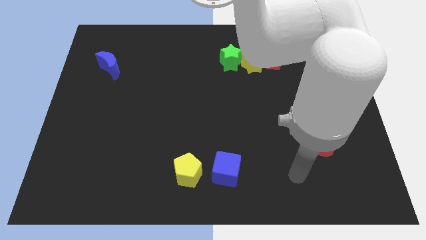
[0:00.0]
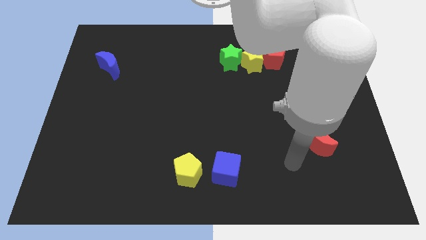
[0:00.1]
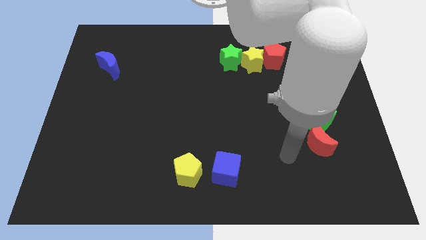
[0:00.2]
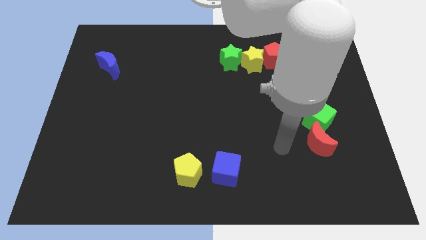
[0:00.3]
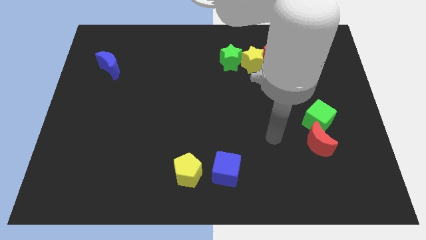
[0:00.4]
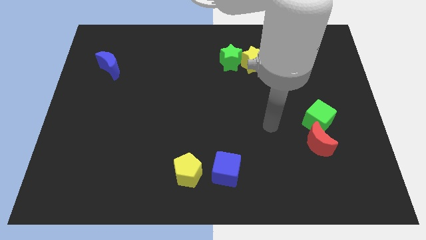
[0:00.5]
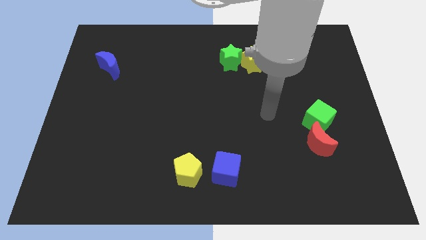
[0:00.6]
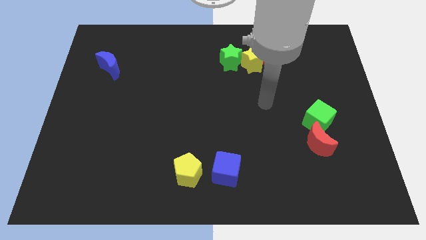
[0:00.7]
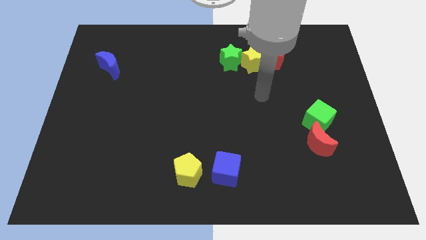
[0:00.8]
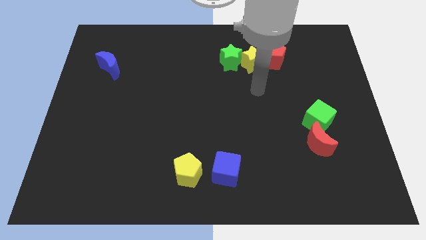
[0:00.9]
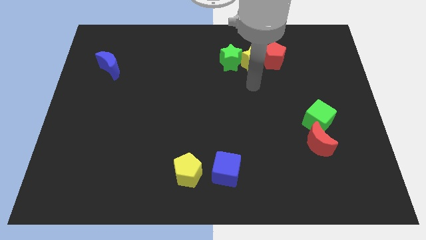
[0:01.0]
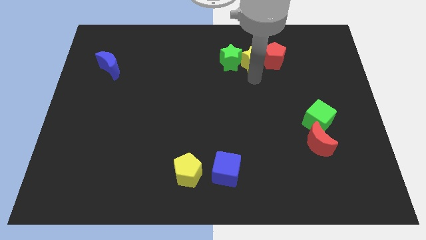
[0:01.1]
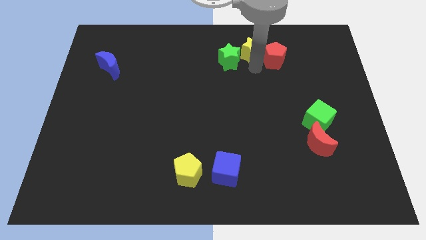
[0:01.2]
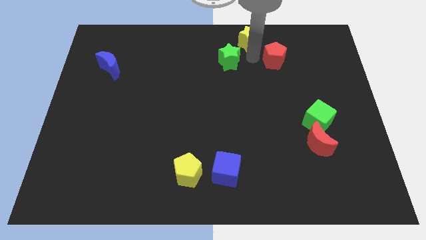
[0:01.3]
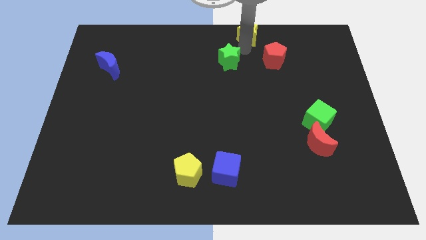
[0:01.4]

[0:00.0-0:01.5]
move the green star away from the yellow star

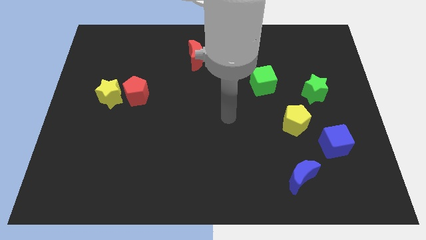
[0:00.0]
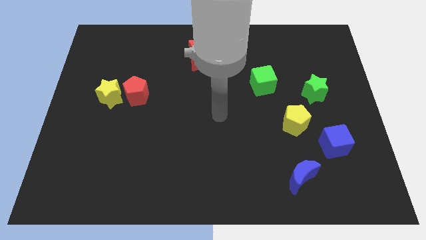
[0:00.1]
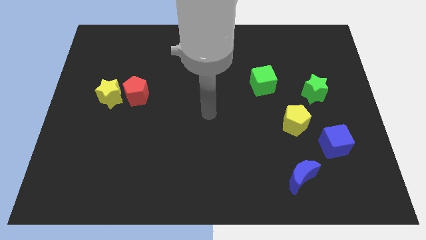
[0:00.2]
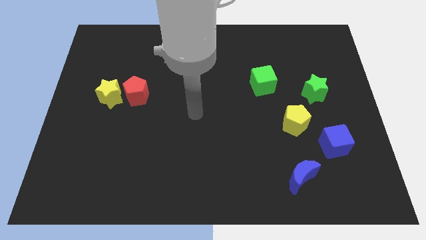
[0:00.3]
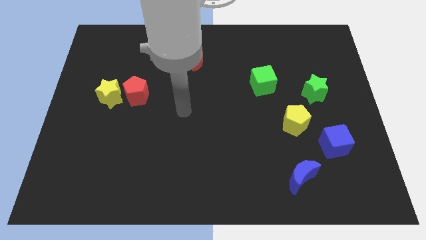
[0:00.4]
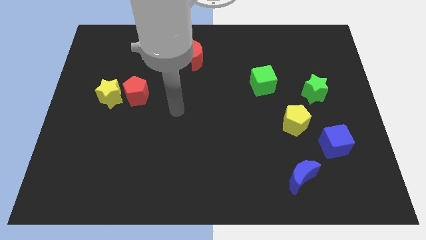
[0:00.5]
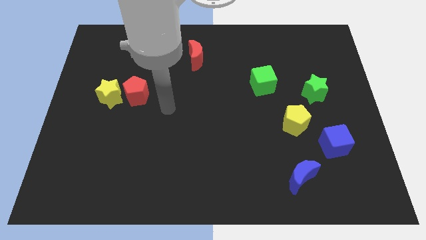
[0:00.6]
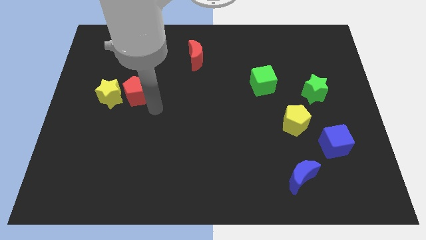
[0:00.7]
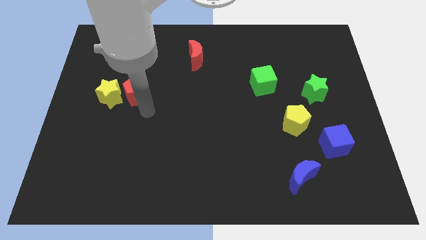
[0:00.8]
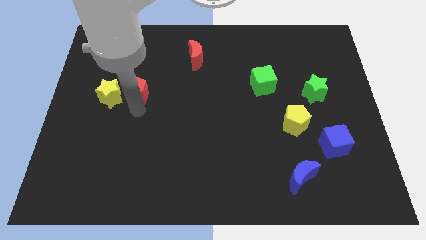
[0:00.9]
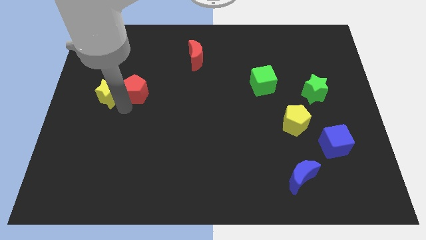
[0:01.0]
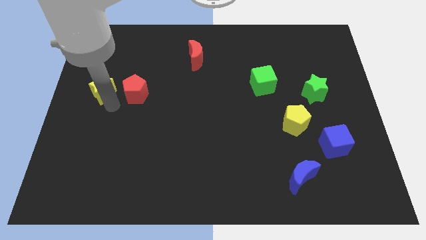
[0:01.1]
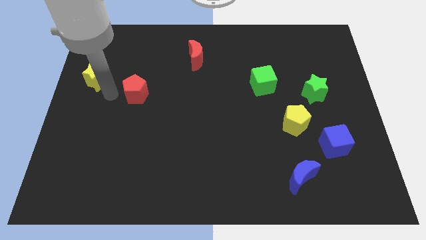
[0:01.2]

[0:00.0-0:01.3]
separate the red pentagon from the yellow star

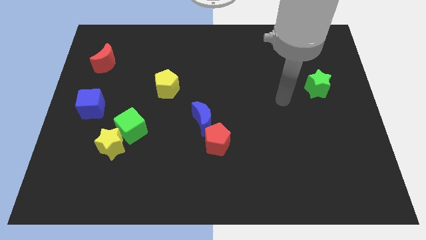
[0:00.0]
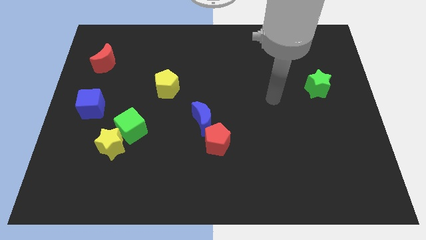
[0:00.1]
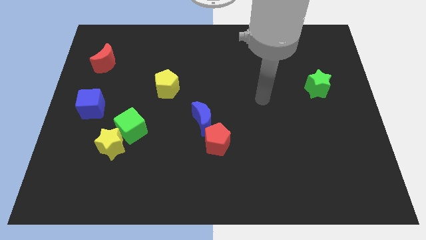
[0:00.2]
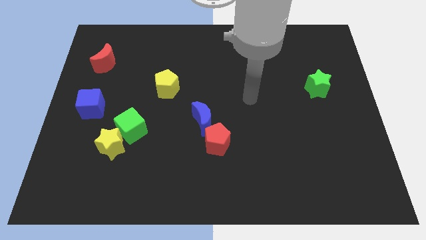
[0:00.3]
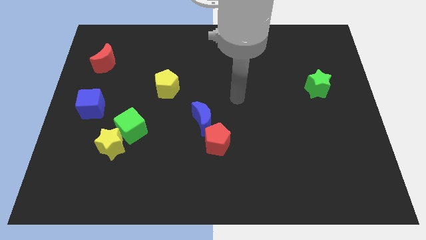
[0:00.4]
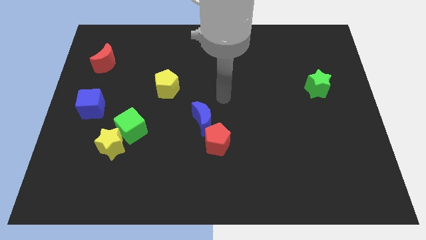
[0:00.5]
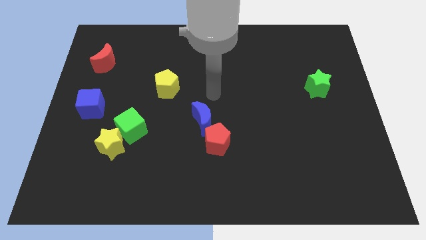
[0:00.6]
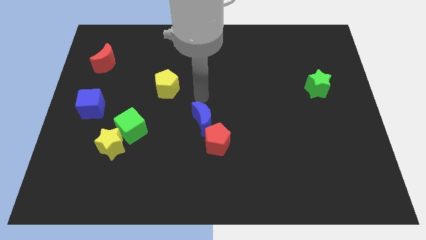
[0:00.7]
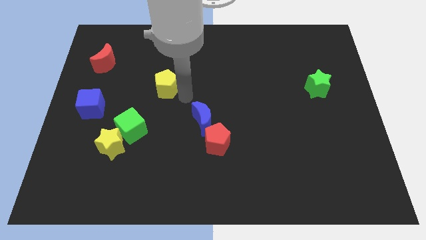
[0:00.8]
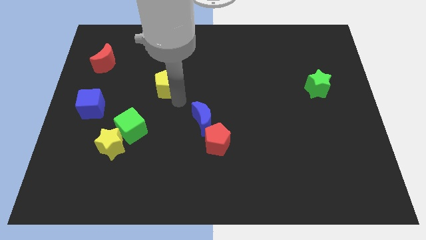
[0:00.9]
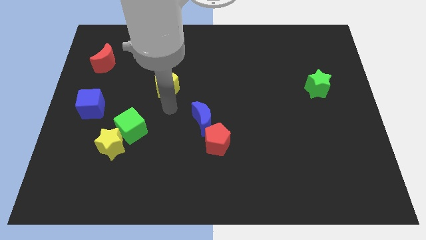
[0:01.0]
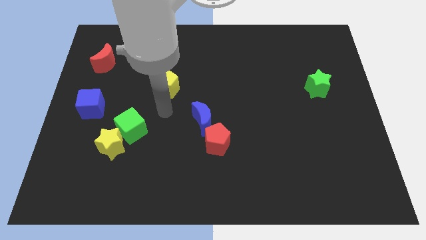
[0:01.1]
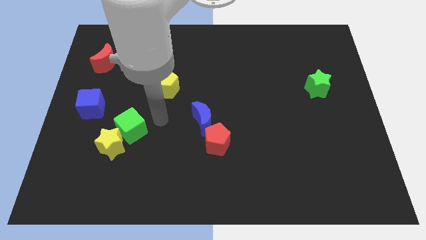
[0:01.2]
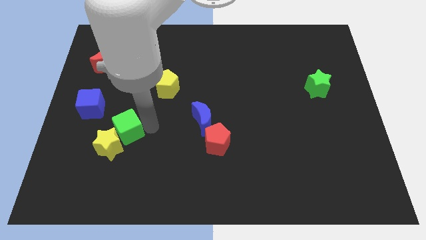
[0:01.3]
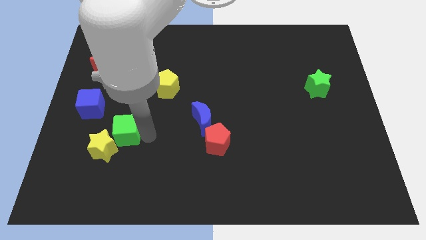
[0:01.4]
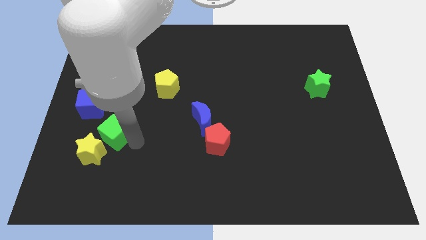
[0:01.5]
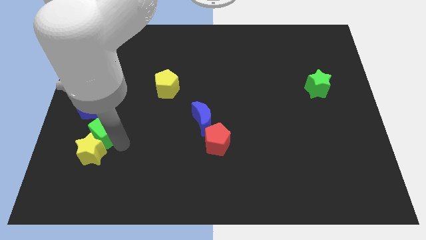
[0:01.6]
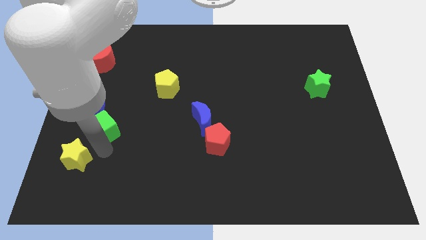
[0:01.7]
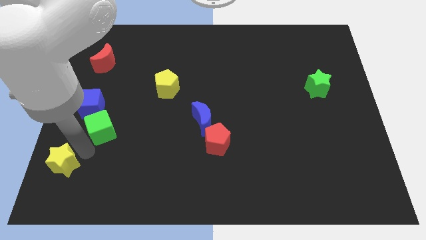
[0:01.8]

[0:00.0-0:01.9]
pull the green cube apart from the yellow star

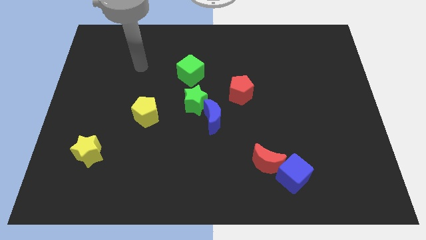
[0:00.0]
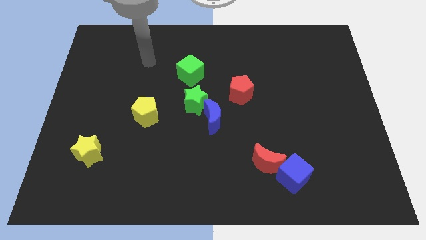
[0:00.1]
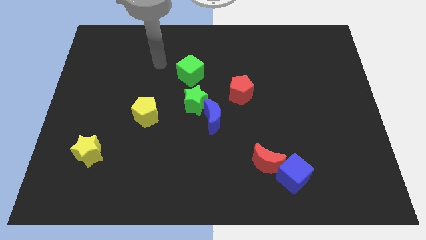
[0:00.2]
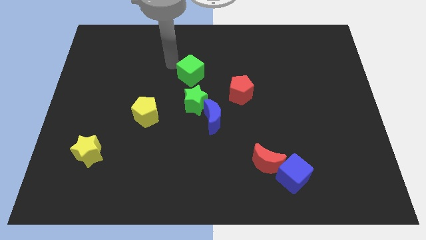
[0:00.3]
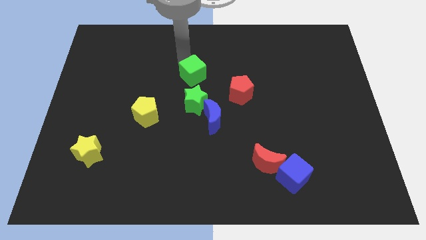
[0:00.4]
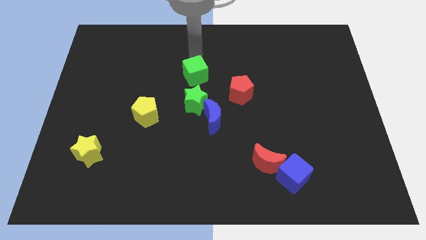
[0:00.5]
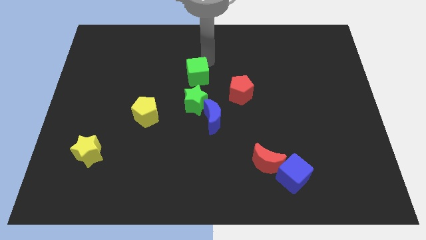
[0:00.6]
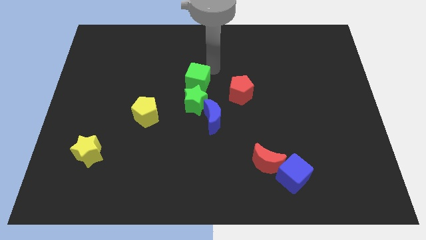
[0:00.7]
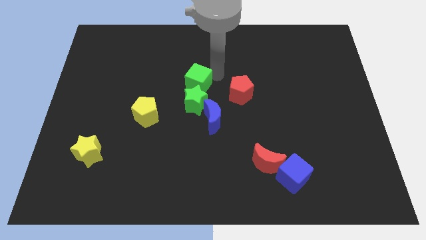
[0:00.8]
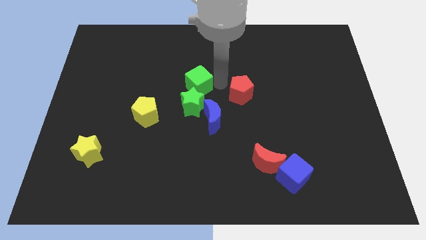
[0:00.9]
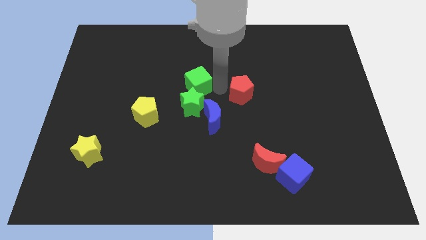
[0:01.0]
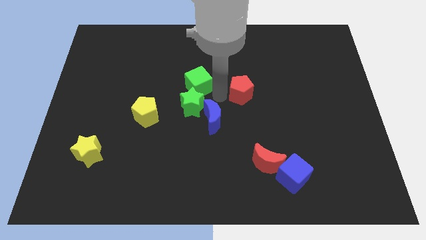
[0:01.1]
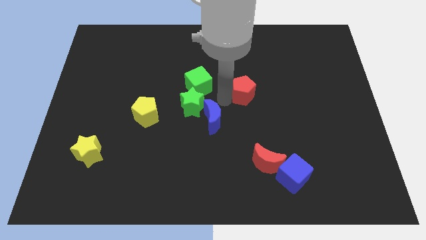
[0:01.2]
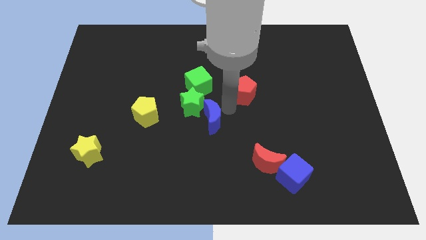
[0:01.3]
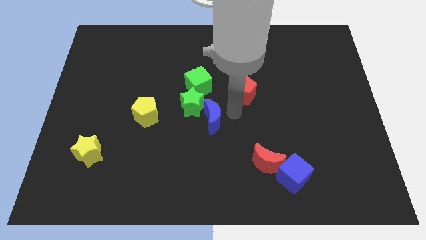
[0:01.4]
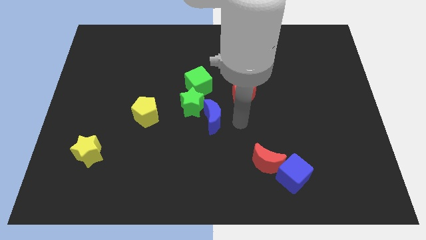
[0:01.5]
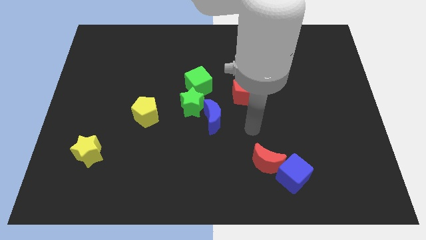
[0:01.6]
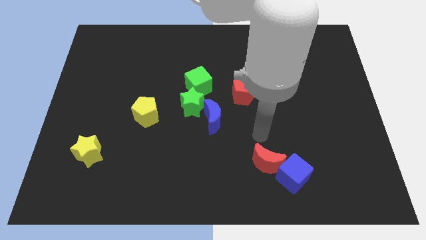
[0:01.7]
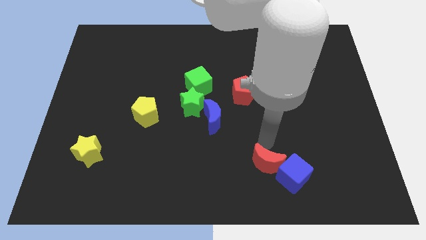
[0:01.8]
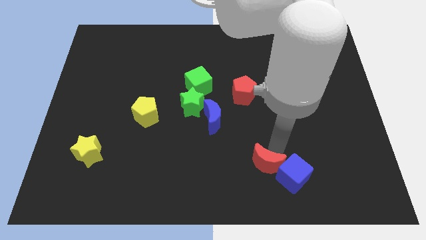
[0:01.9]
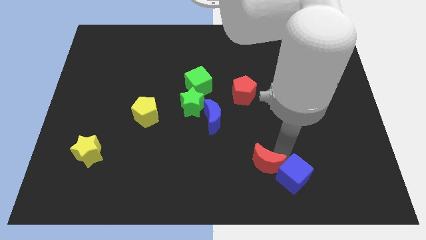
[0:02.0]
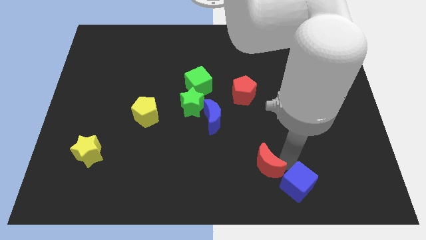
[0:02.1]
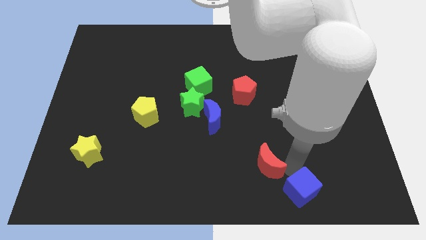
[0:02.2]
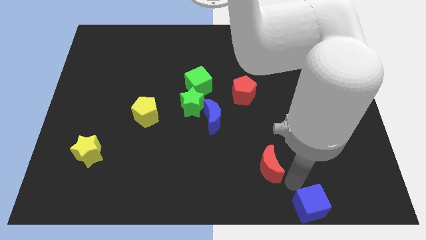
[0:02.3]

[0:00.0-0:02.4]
move the red moon away from the blue cube

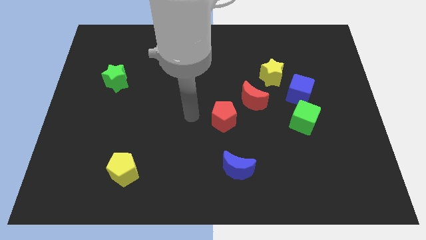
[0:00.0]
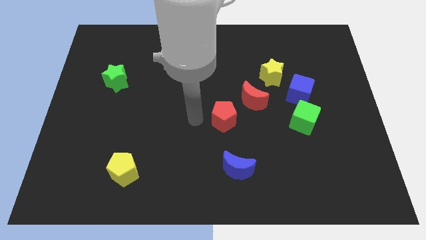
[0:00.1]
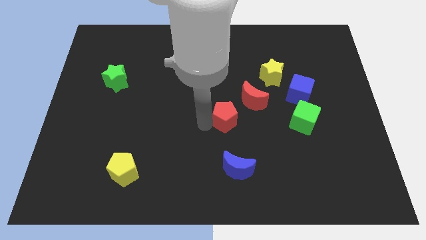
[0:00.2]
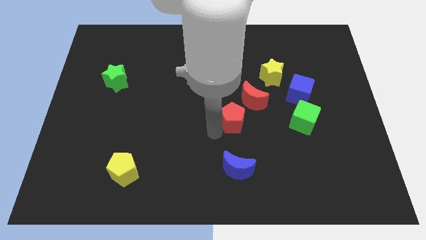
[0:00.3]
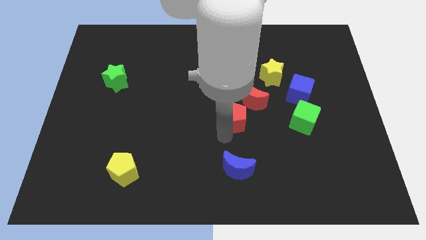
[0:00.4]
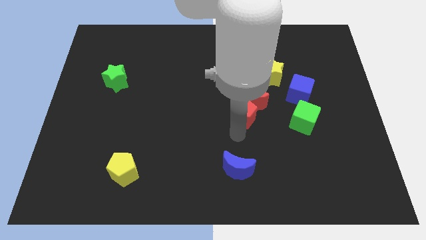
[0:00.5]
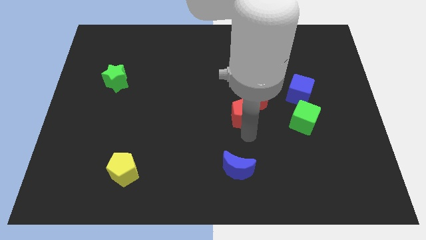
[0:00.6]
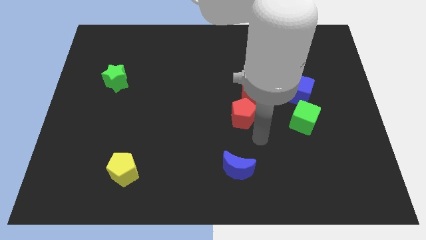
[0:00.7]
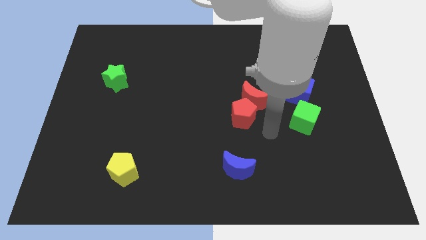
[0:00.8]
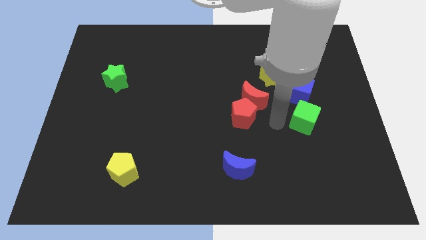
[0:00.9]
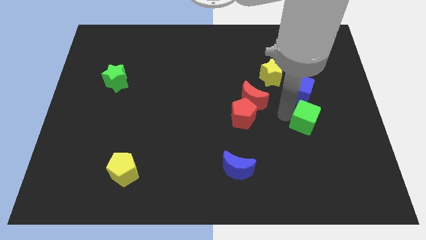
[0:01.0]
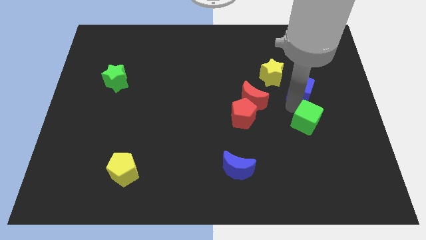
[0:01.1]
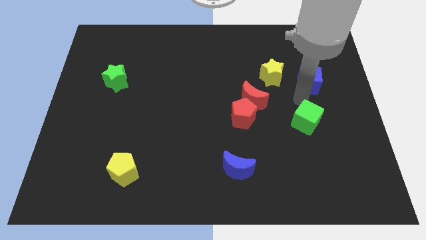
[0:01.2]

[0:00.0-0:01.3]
separate the green cube from the blue cube

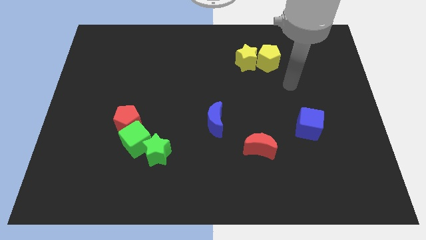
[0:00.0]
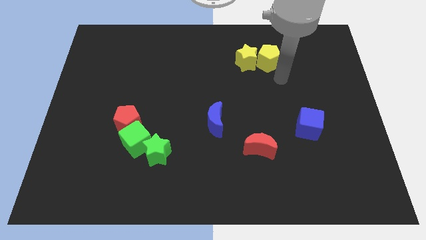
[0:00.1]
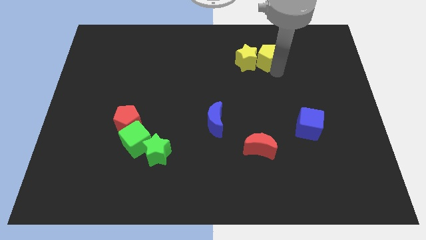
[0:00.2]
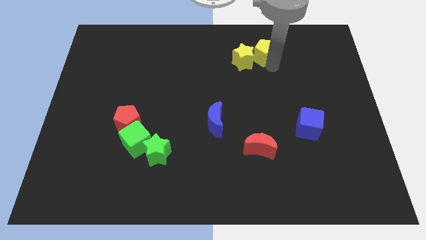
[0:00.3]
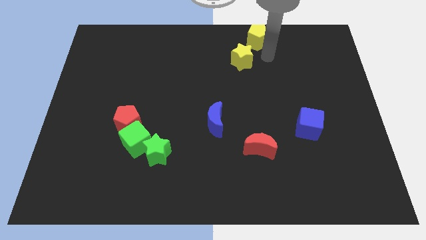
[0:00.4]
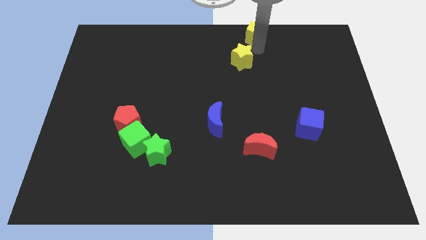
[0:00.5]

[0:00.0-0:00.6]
pull the yellow star apart from the yellow pentagon

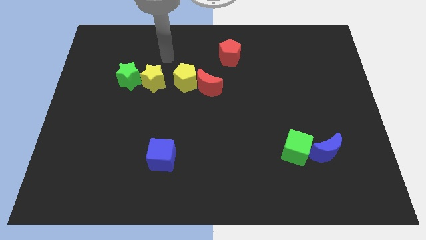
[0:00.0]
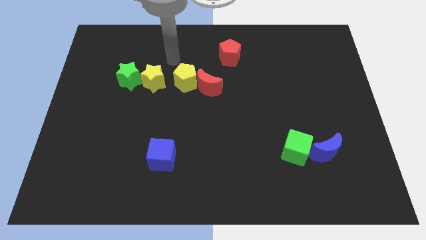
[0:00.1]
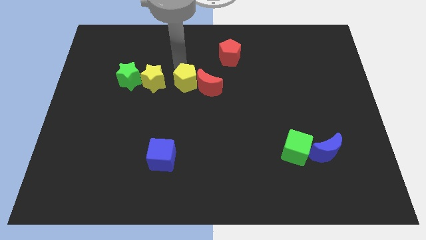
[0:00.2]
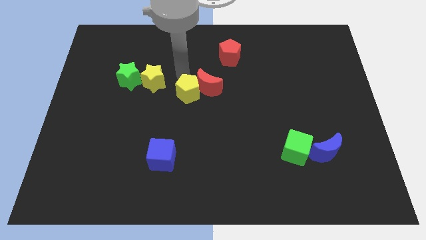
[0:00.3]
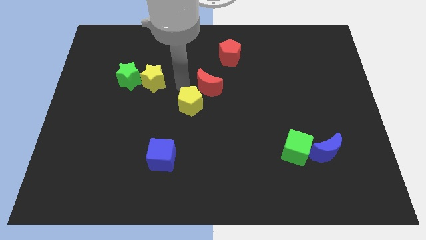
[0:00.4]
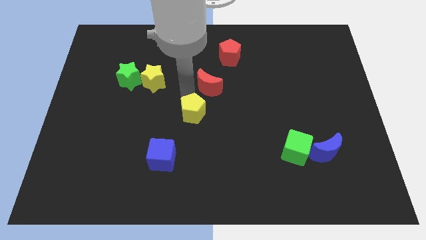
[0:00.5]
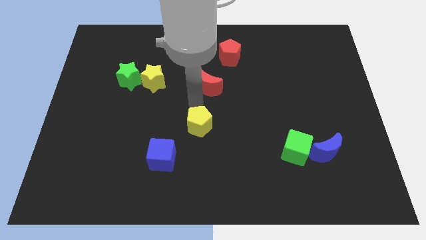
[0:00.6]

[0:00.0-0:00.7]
separate the red moon from the yellow pentagon
